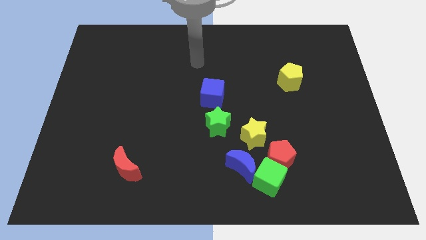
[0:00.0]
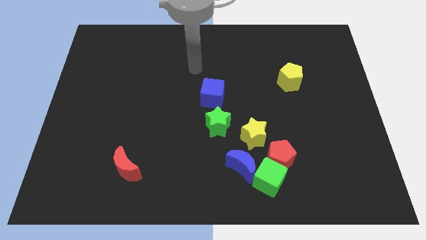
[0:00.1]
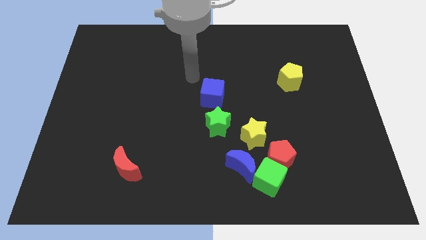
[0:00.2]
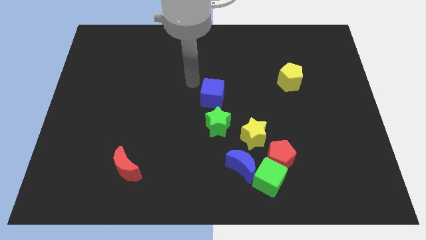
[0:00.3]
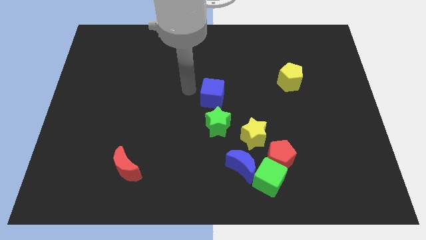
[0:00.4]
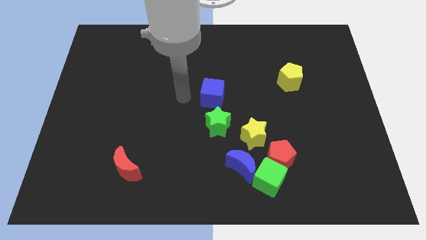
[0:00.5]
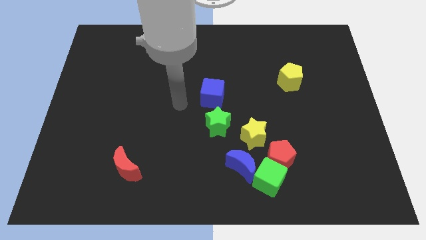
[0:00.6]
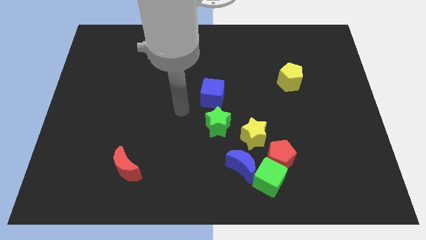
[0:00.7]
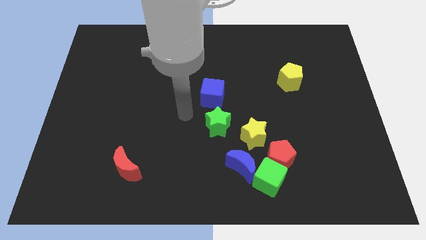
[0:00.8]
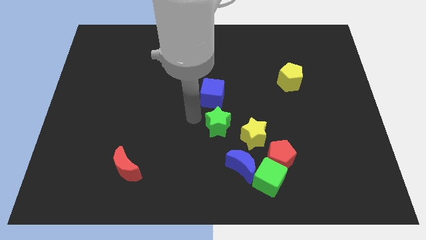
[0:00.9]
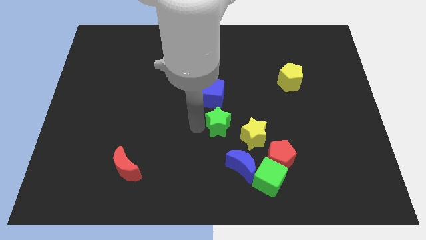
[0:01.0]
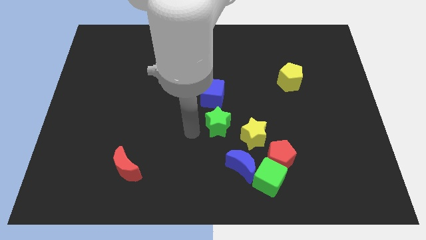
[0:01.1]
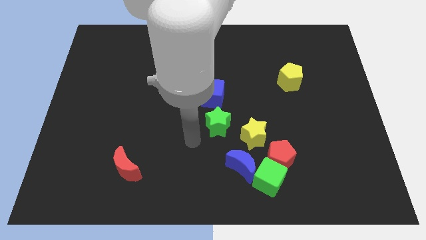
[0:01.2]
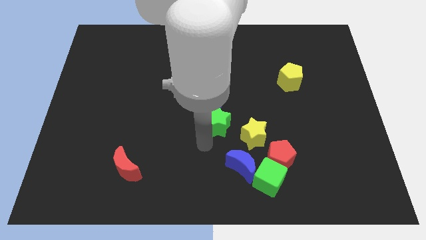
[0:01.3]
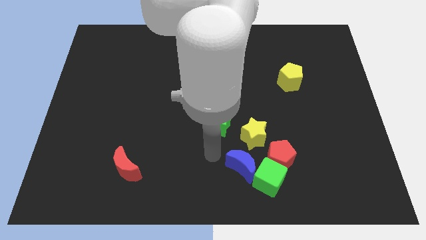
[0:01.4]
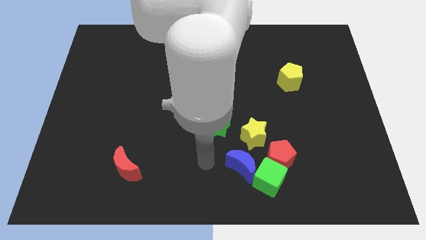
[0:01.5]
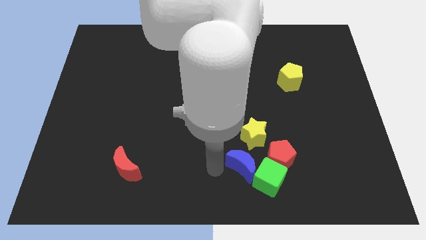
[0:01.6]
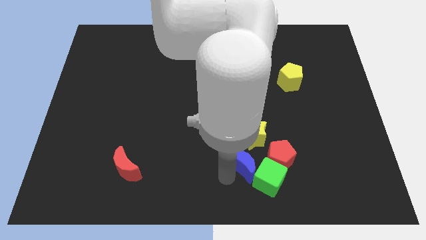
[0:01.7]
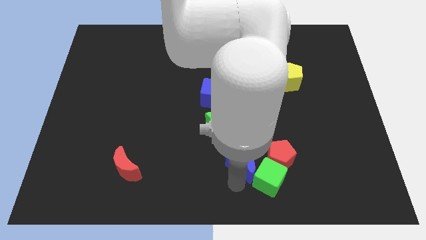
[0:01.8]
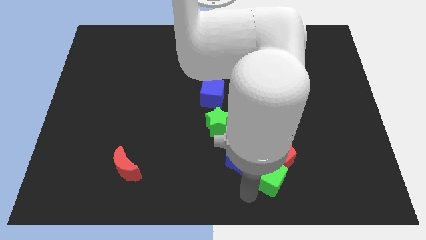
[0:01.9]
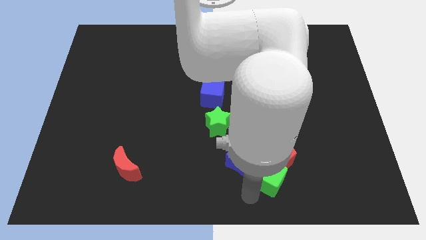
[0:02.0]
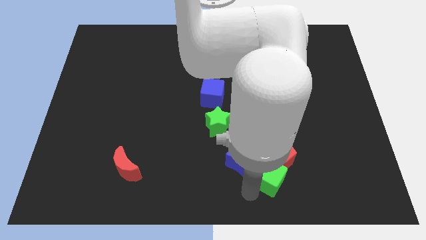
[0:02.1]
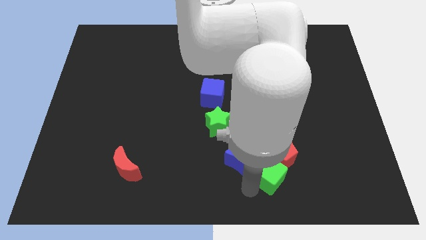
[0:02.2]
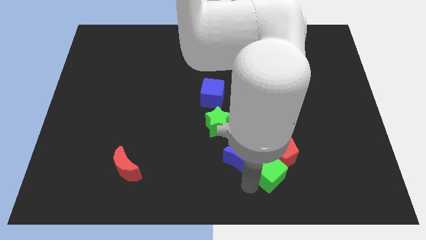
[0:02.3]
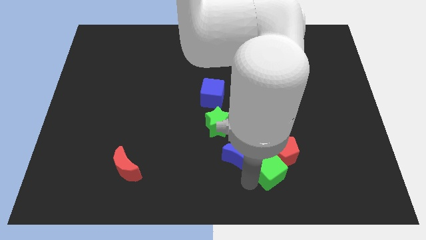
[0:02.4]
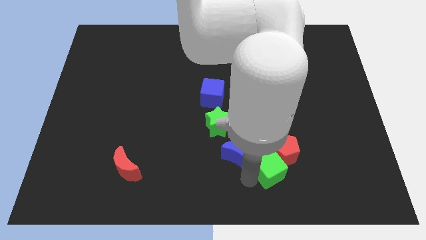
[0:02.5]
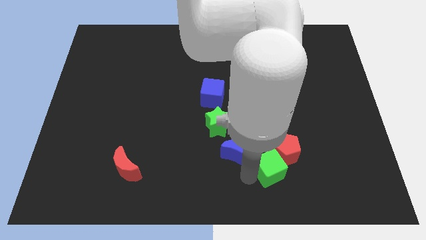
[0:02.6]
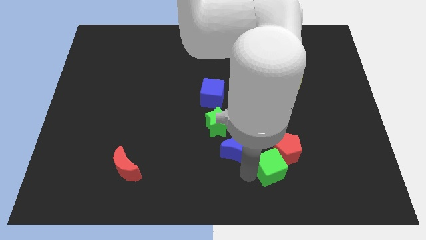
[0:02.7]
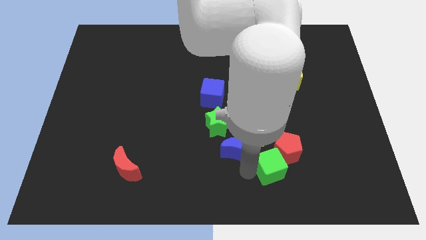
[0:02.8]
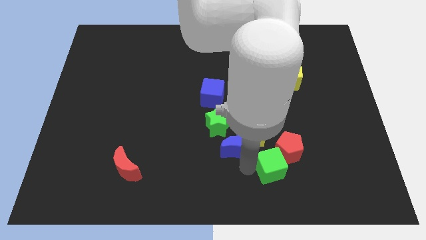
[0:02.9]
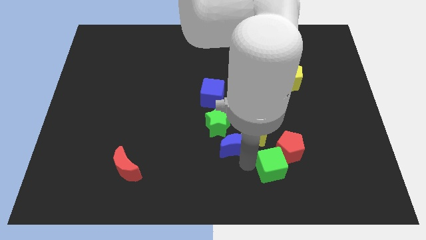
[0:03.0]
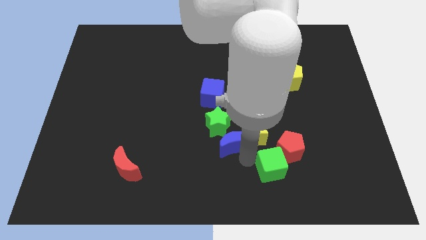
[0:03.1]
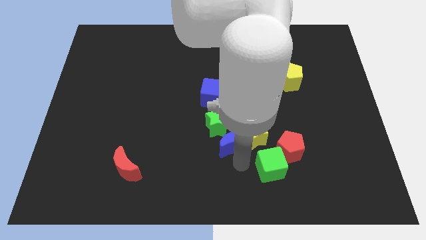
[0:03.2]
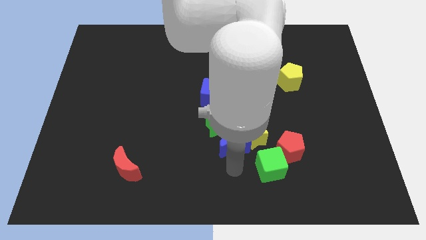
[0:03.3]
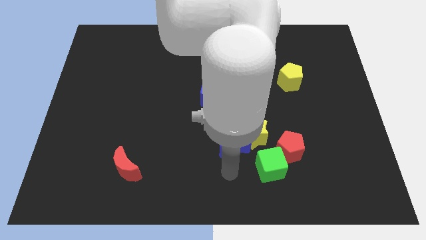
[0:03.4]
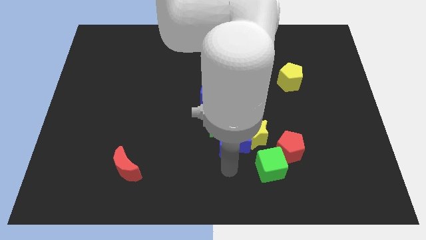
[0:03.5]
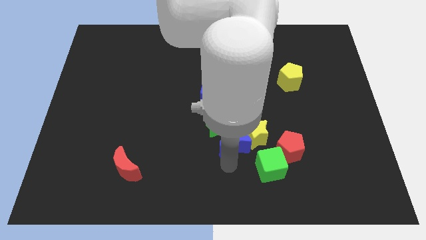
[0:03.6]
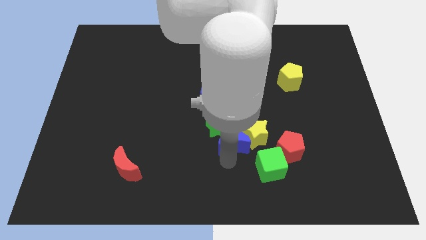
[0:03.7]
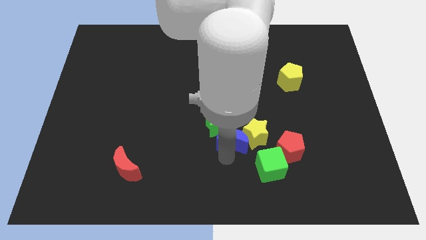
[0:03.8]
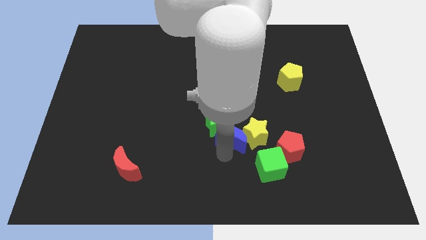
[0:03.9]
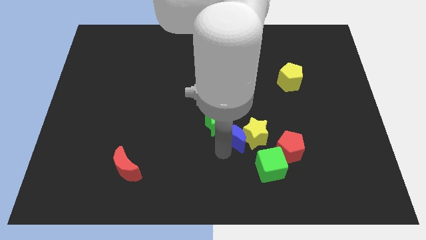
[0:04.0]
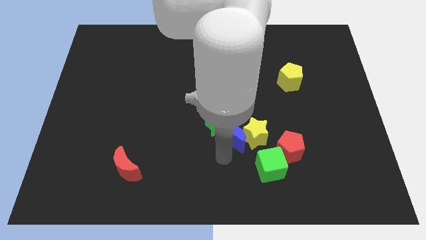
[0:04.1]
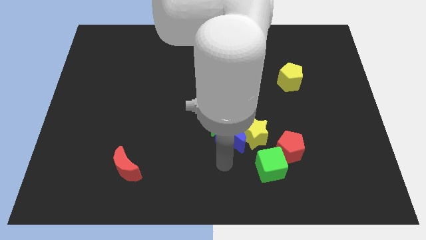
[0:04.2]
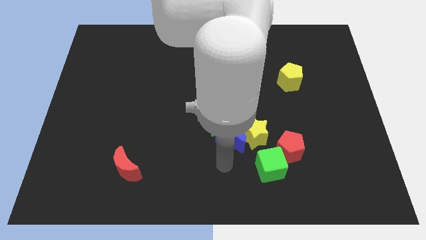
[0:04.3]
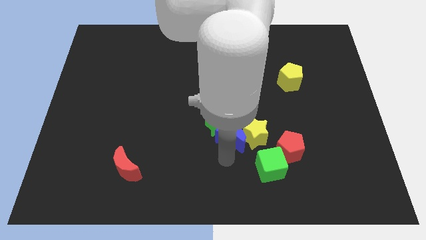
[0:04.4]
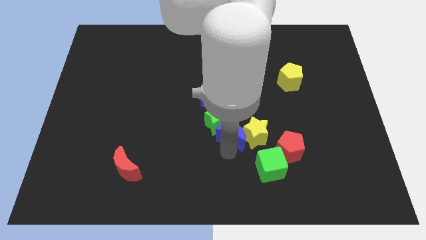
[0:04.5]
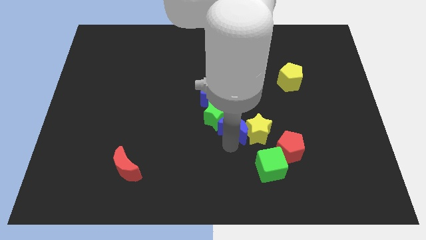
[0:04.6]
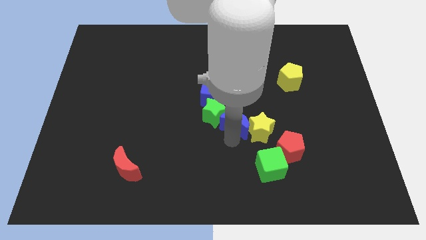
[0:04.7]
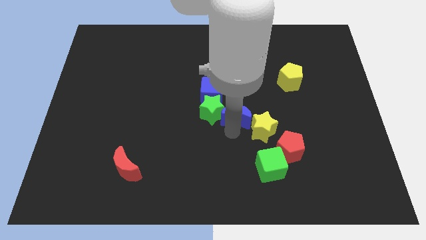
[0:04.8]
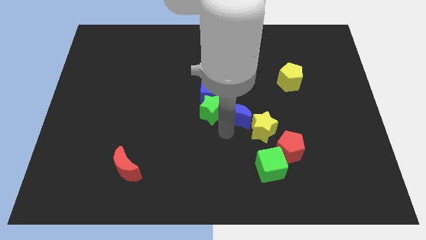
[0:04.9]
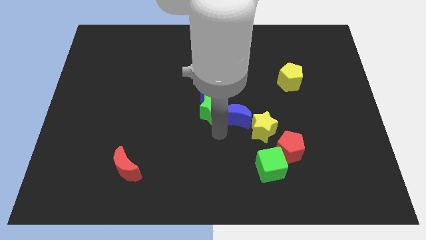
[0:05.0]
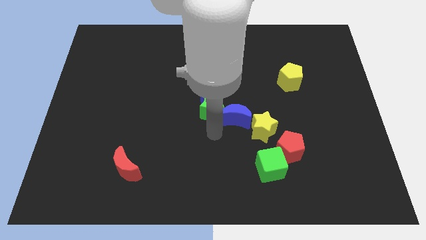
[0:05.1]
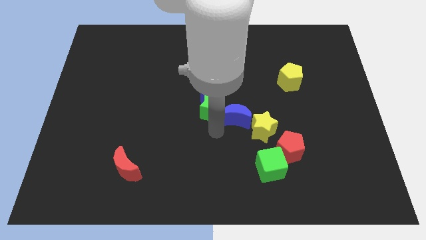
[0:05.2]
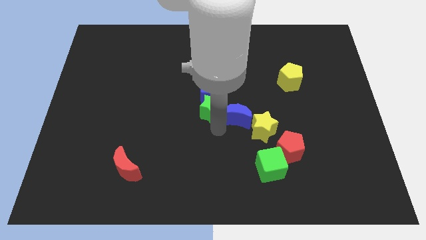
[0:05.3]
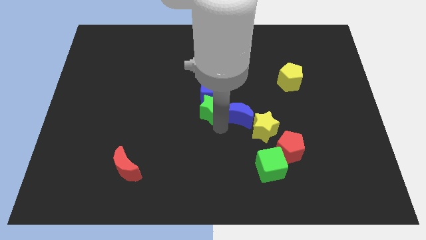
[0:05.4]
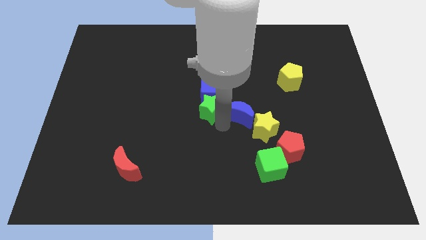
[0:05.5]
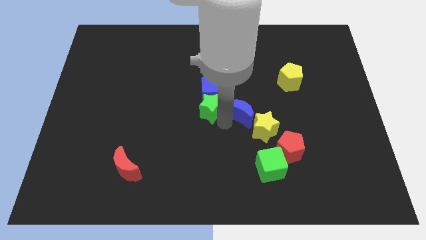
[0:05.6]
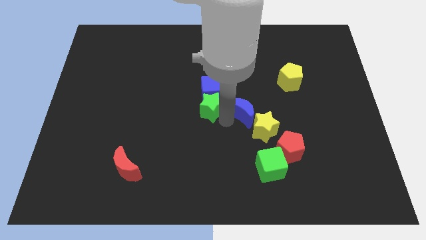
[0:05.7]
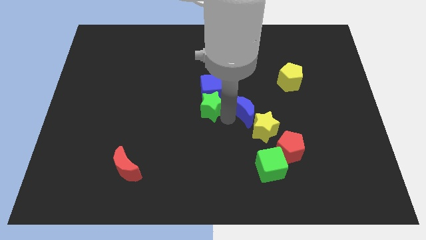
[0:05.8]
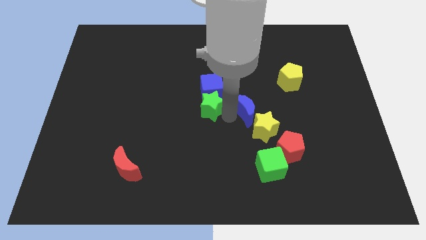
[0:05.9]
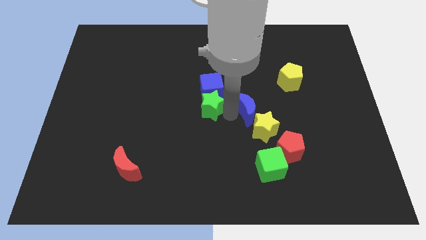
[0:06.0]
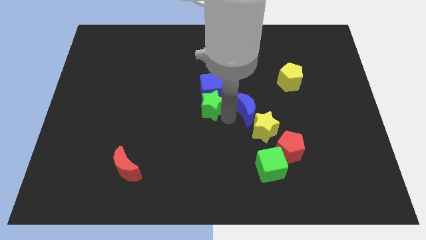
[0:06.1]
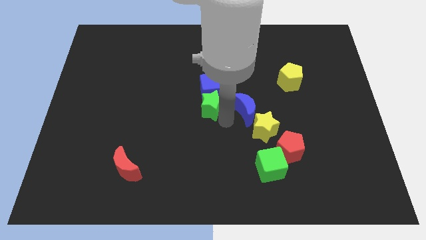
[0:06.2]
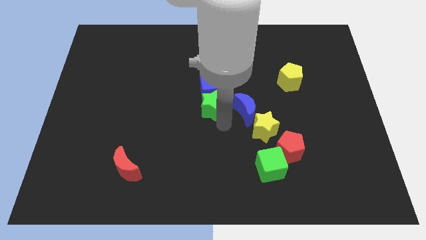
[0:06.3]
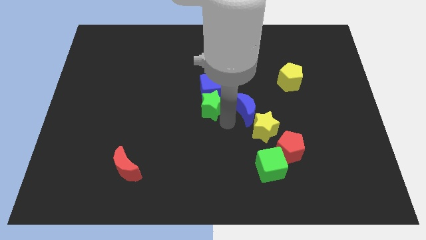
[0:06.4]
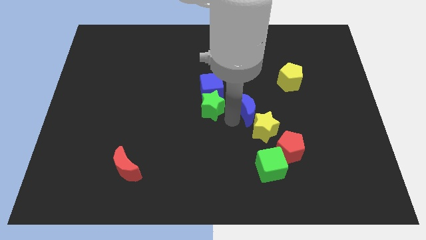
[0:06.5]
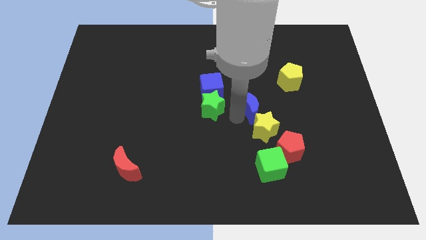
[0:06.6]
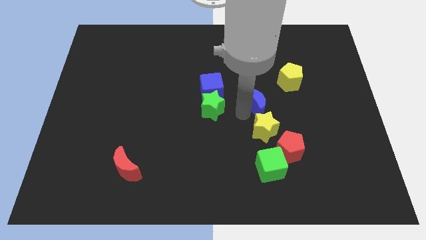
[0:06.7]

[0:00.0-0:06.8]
put the blue moon to the bottom left side of the yellow pentagon
